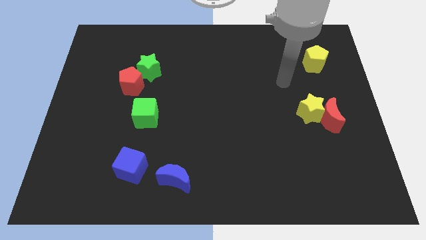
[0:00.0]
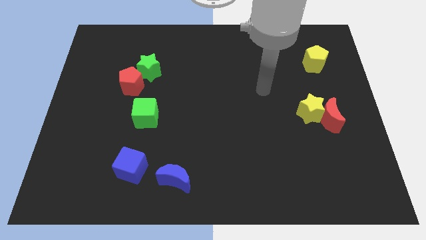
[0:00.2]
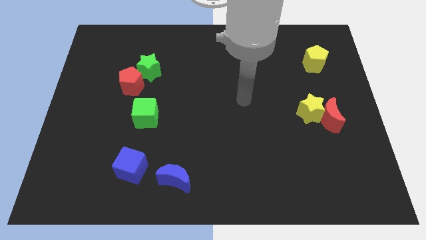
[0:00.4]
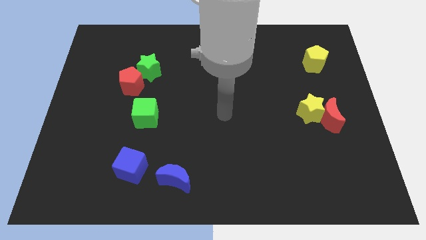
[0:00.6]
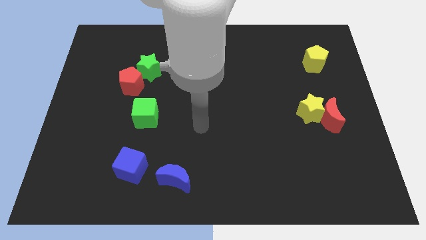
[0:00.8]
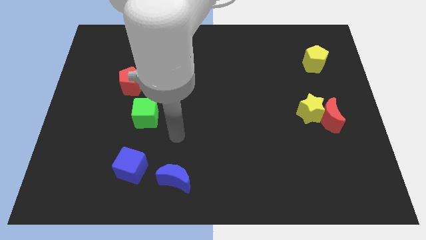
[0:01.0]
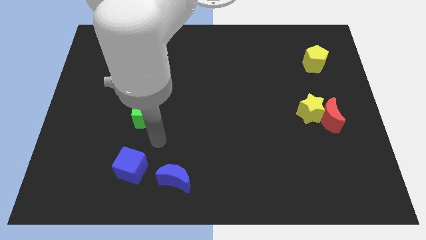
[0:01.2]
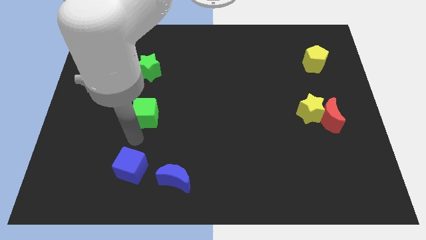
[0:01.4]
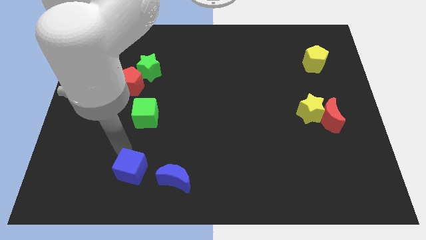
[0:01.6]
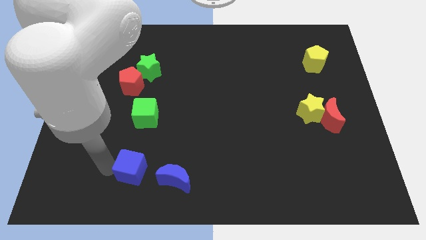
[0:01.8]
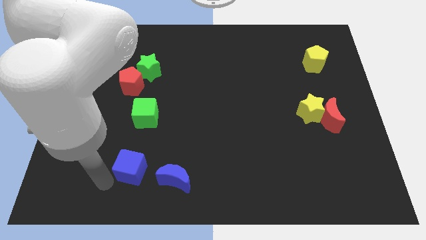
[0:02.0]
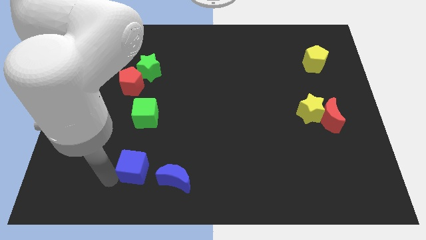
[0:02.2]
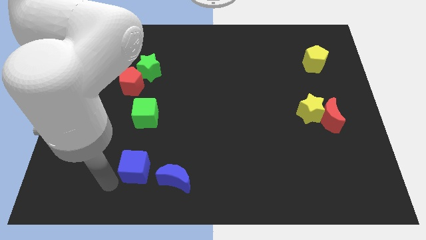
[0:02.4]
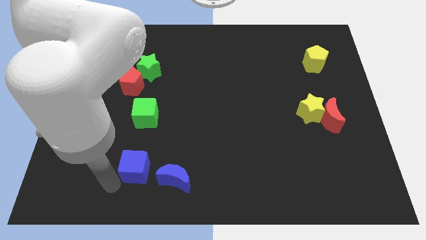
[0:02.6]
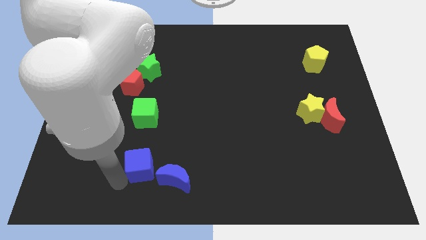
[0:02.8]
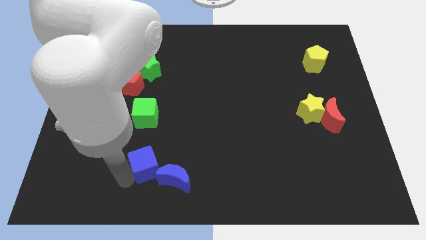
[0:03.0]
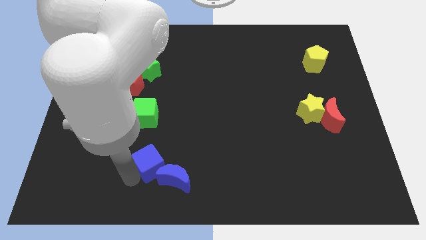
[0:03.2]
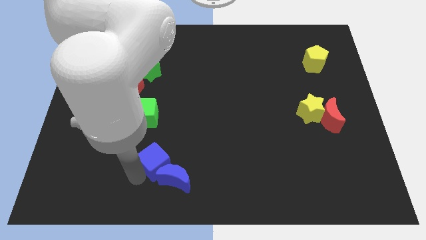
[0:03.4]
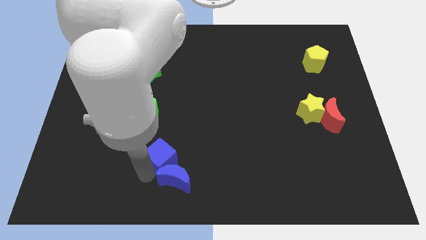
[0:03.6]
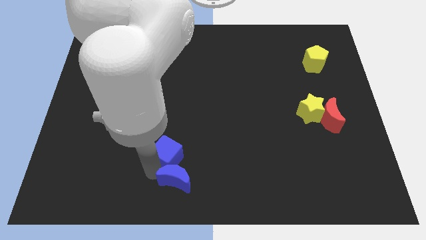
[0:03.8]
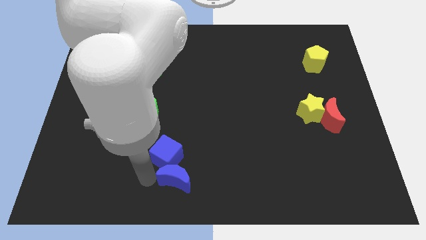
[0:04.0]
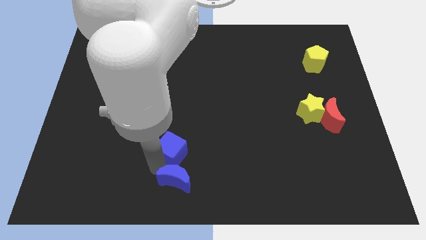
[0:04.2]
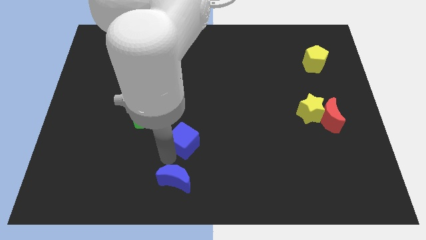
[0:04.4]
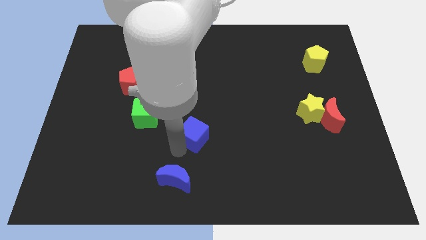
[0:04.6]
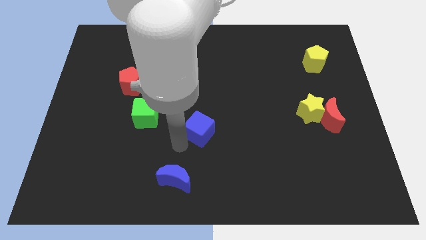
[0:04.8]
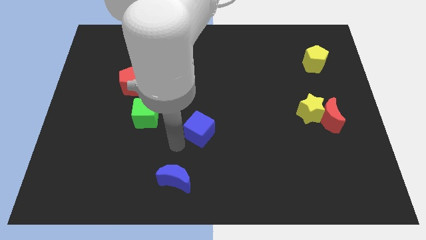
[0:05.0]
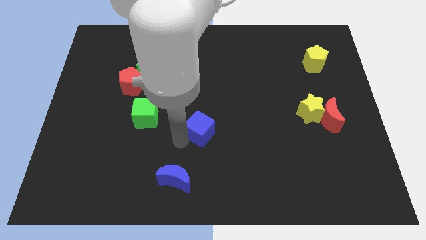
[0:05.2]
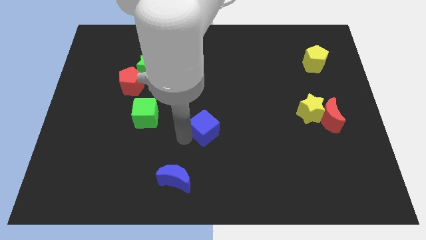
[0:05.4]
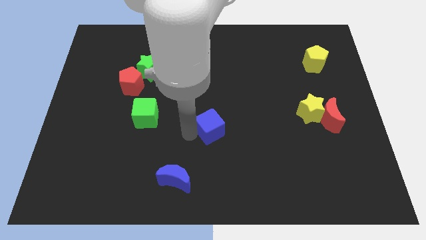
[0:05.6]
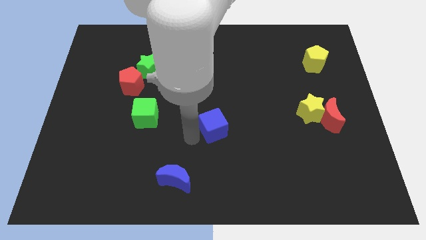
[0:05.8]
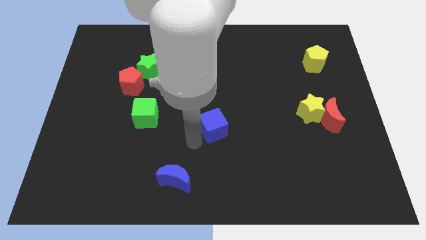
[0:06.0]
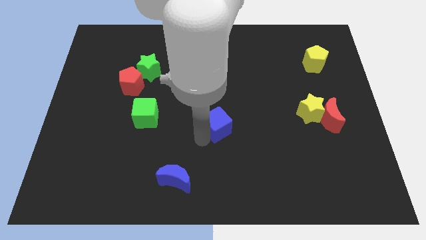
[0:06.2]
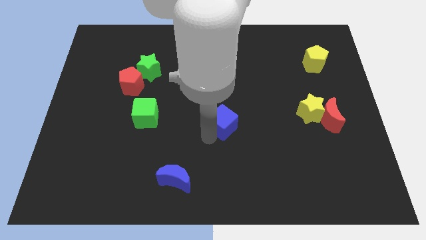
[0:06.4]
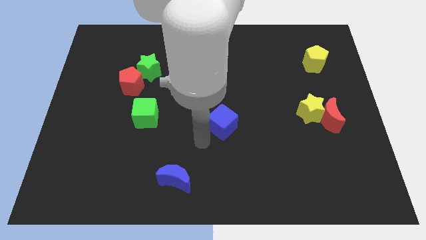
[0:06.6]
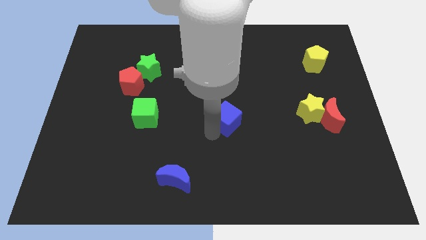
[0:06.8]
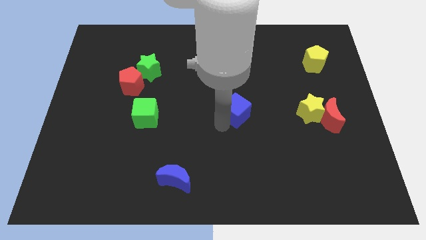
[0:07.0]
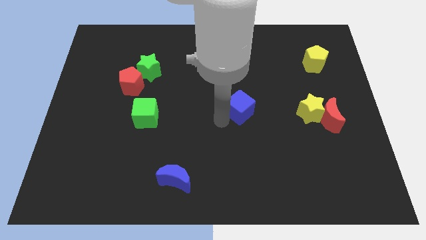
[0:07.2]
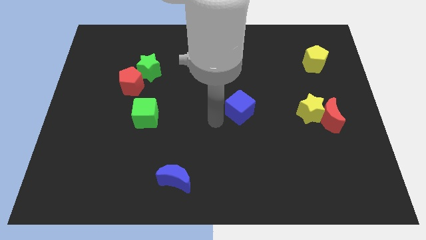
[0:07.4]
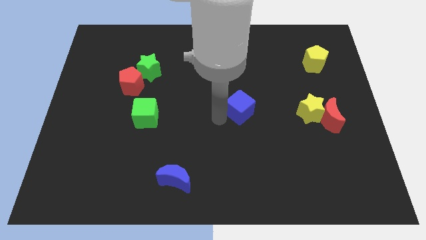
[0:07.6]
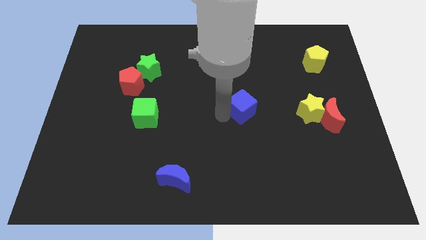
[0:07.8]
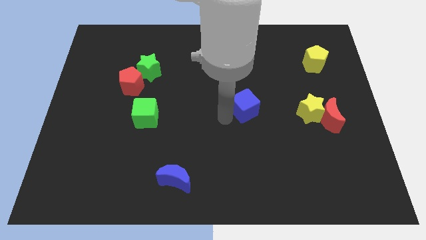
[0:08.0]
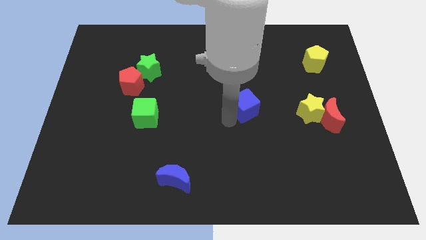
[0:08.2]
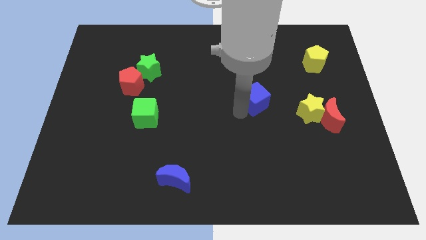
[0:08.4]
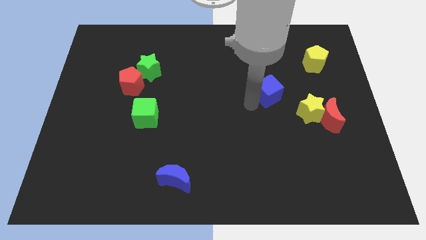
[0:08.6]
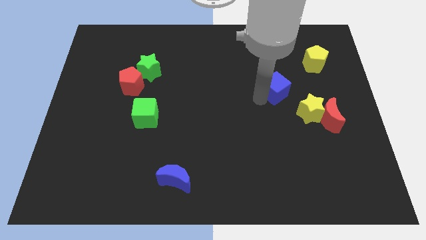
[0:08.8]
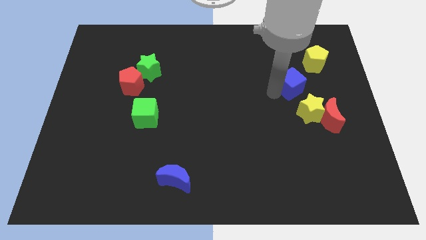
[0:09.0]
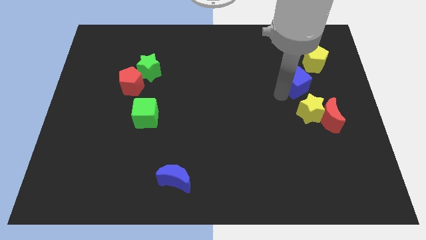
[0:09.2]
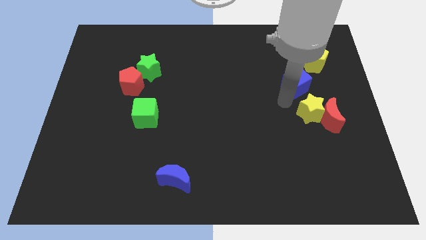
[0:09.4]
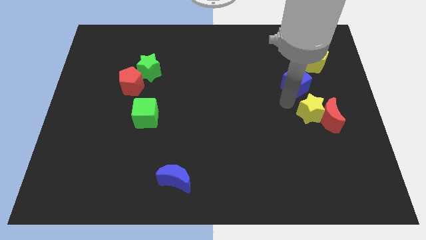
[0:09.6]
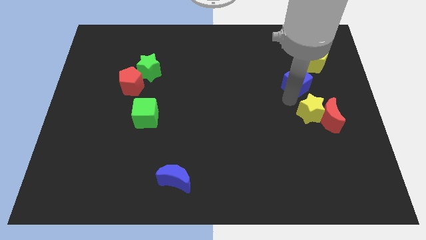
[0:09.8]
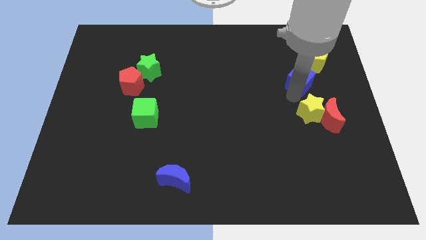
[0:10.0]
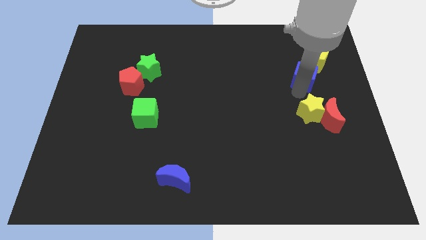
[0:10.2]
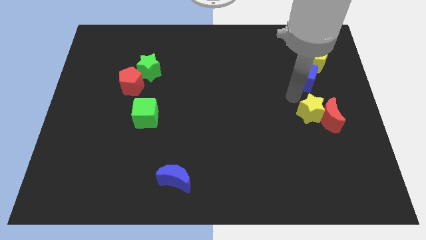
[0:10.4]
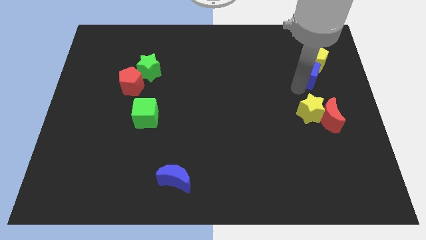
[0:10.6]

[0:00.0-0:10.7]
slide the blue cube towards the yellow pentagon

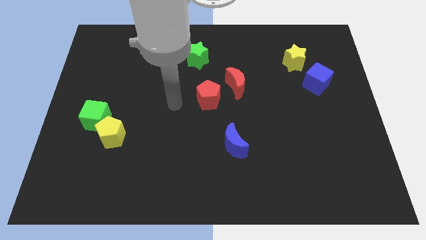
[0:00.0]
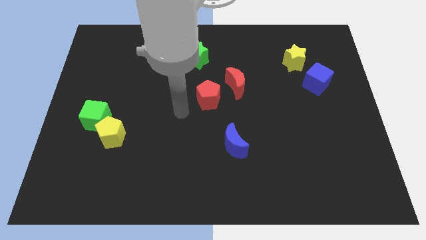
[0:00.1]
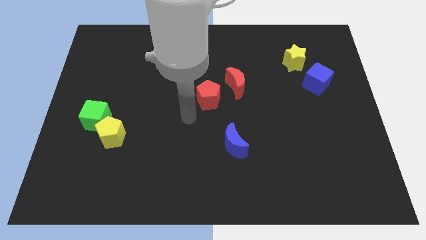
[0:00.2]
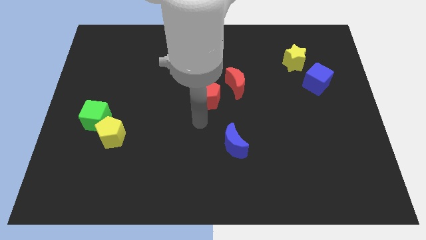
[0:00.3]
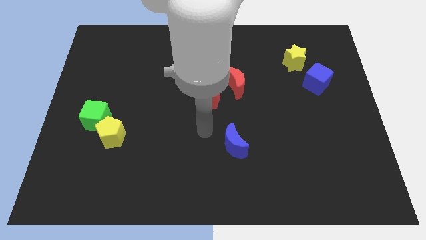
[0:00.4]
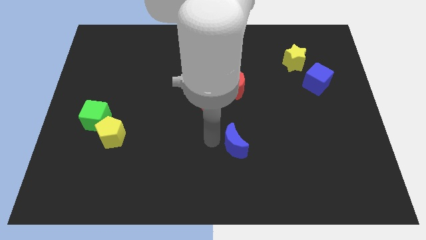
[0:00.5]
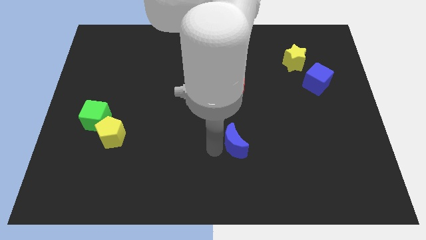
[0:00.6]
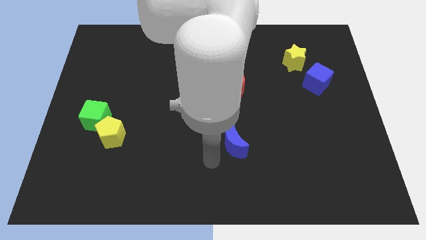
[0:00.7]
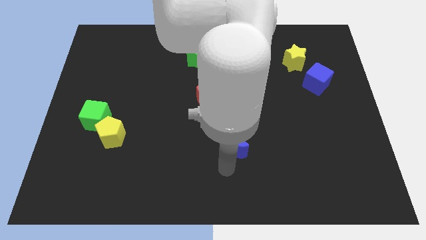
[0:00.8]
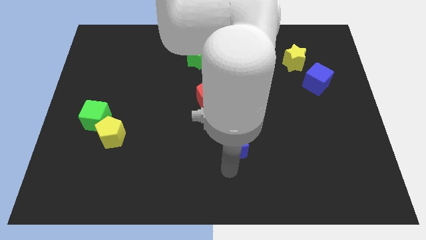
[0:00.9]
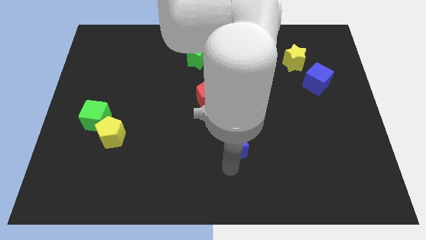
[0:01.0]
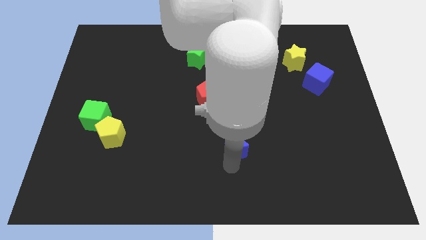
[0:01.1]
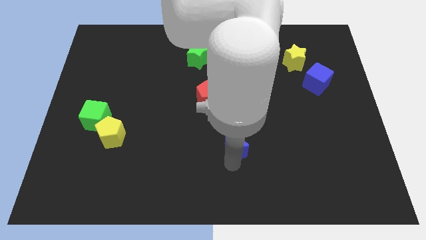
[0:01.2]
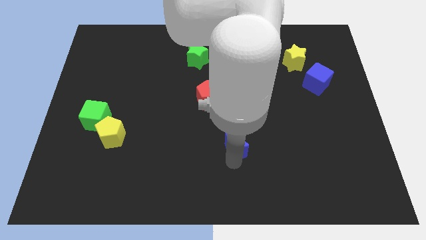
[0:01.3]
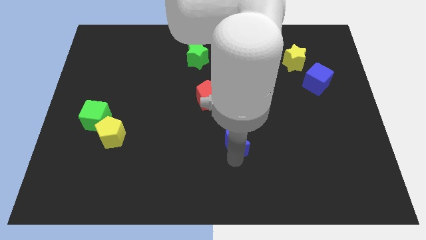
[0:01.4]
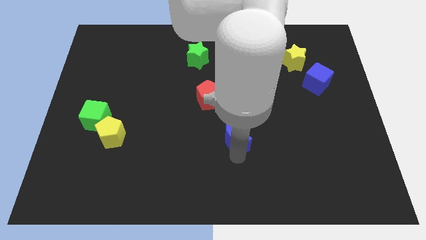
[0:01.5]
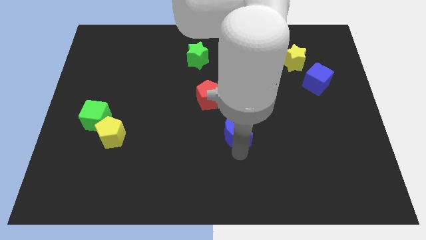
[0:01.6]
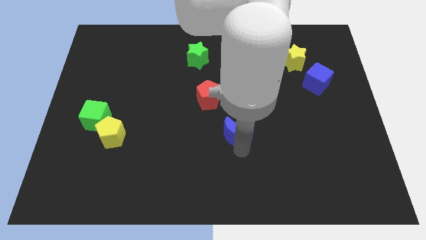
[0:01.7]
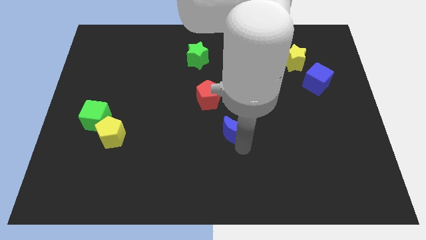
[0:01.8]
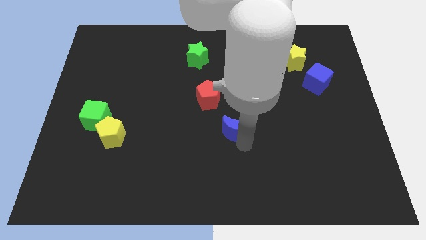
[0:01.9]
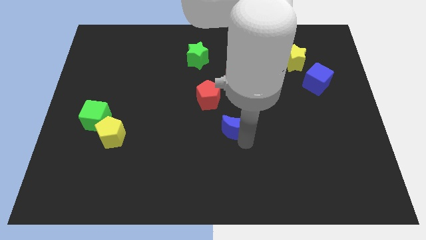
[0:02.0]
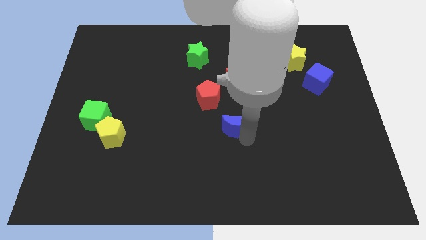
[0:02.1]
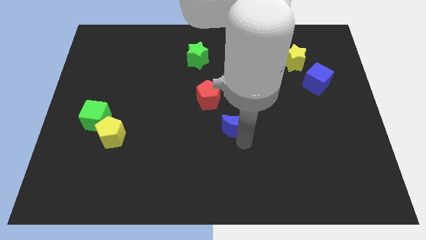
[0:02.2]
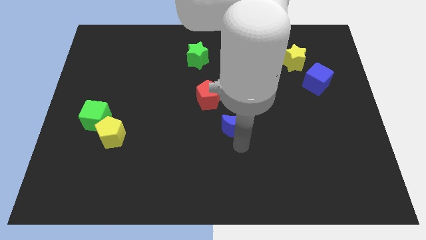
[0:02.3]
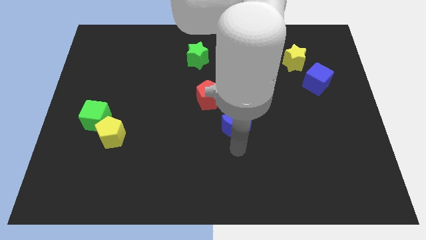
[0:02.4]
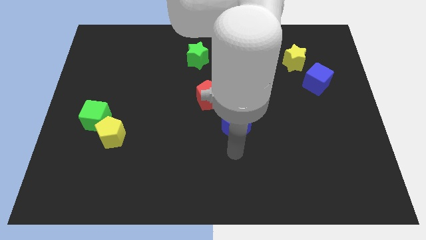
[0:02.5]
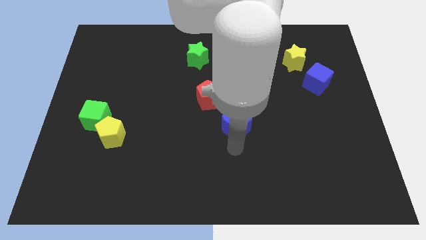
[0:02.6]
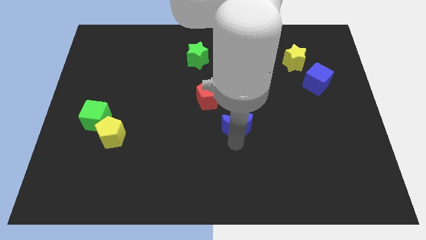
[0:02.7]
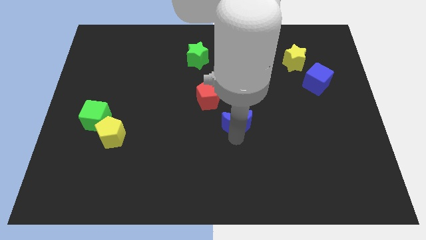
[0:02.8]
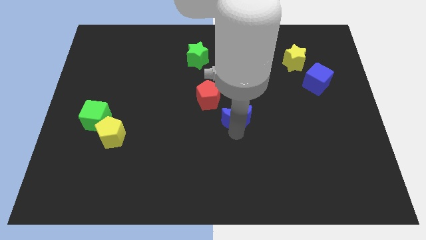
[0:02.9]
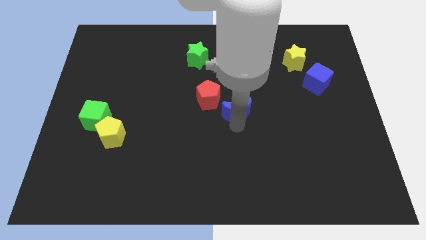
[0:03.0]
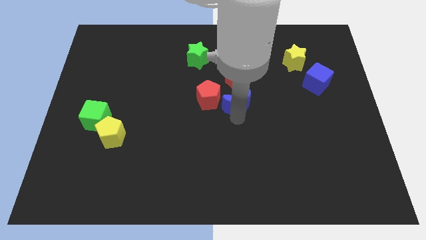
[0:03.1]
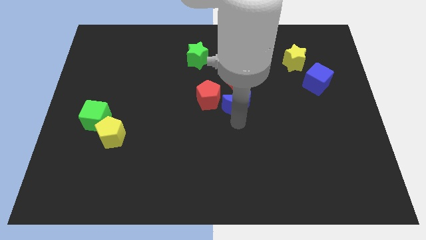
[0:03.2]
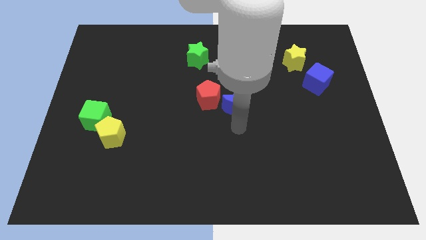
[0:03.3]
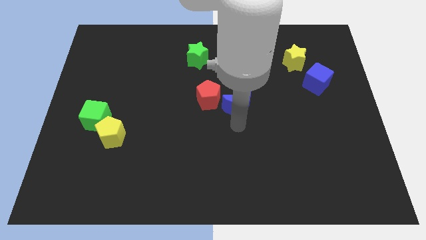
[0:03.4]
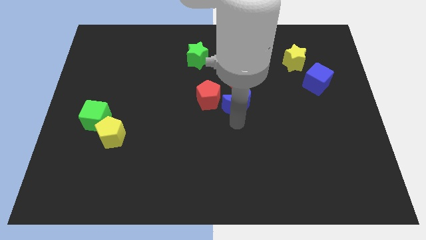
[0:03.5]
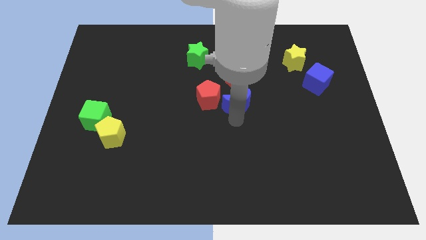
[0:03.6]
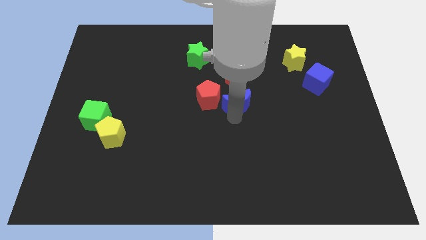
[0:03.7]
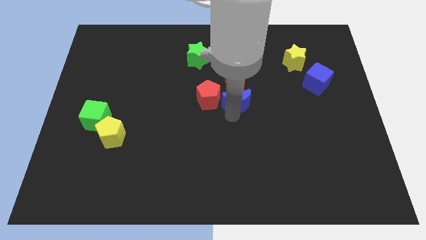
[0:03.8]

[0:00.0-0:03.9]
move the blue moon next to the red moon
